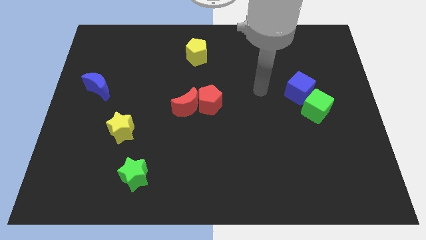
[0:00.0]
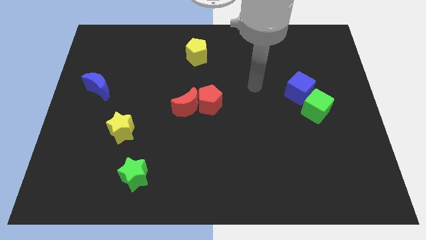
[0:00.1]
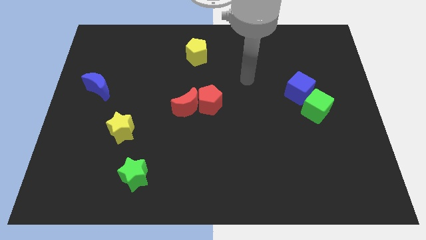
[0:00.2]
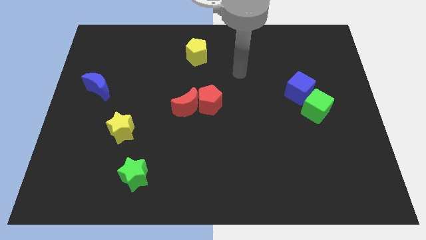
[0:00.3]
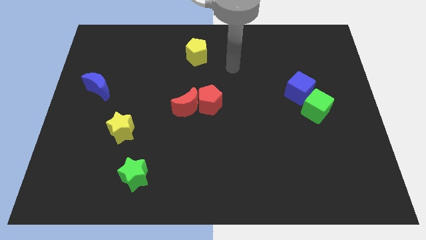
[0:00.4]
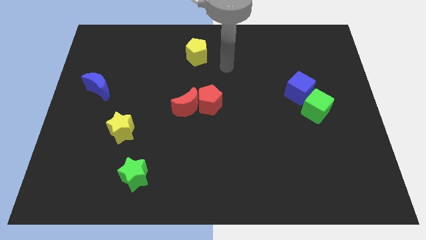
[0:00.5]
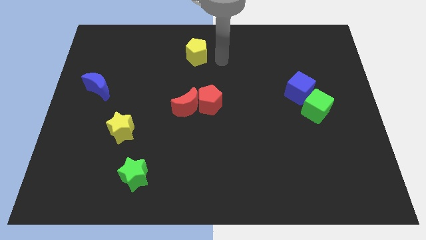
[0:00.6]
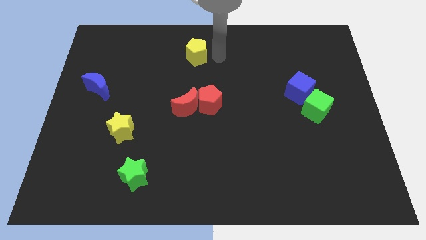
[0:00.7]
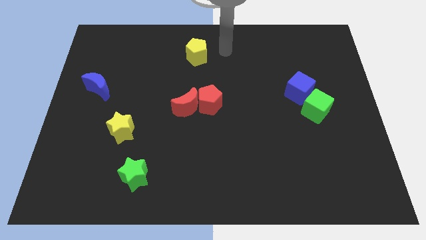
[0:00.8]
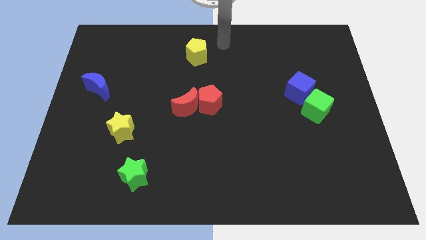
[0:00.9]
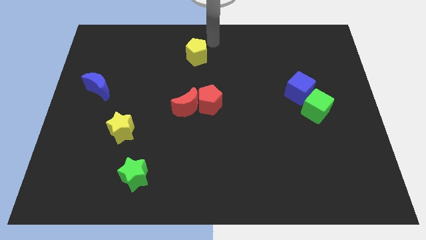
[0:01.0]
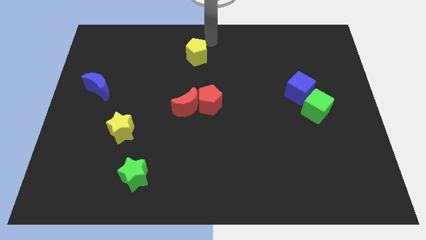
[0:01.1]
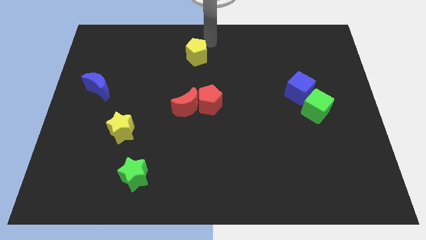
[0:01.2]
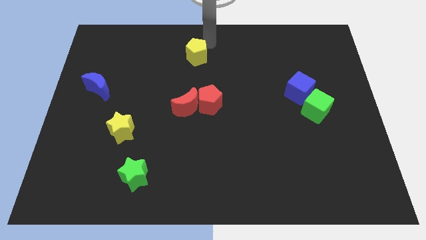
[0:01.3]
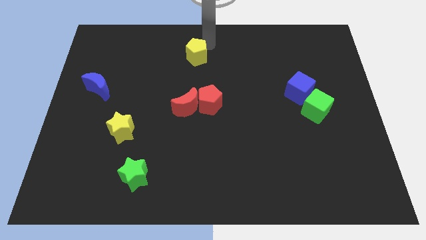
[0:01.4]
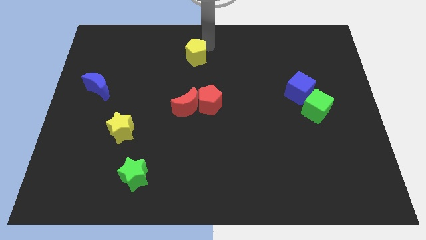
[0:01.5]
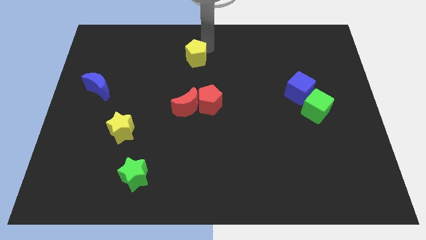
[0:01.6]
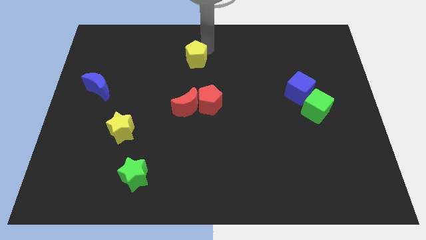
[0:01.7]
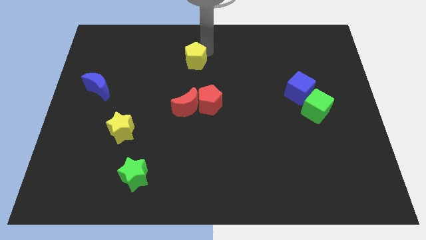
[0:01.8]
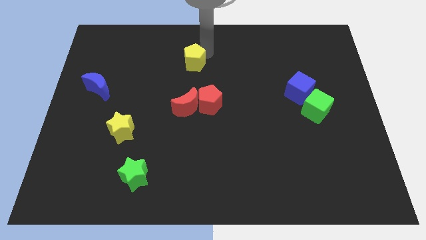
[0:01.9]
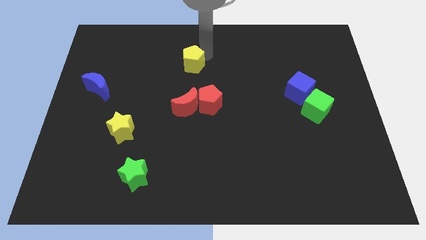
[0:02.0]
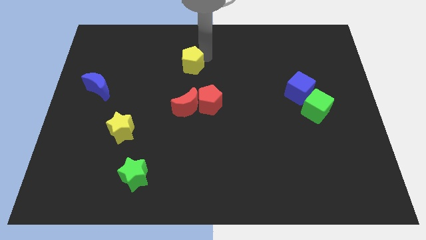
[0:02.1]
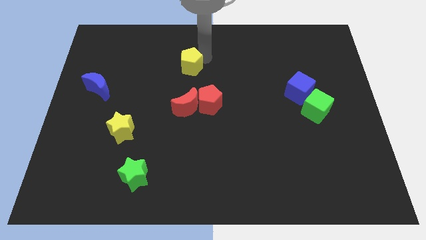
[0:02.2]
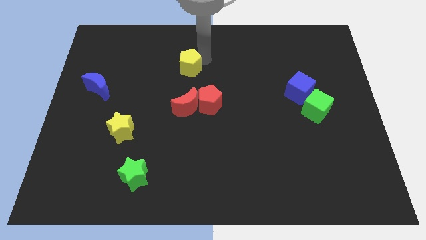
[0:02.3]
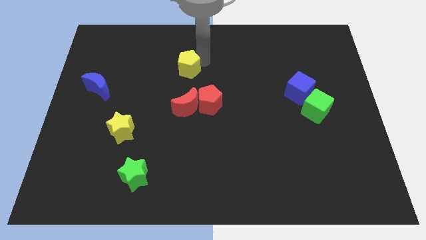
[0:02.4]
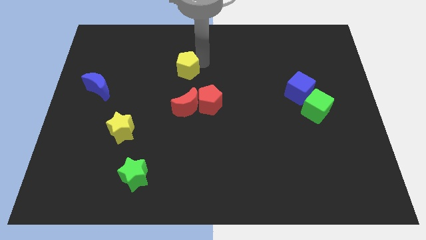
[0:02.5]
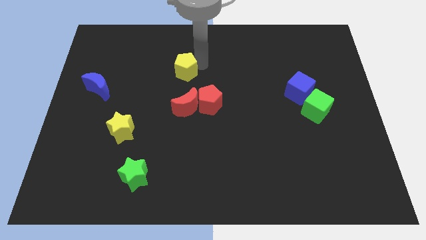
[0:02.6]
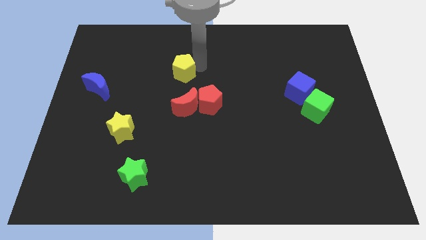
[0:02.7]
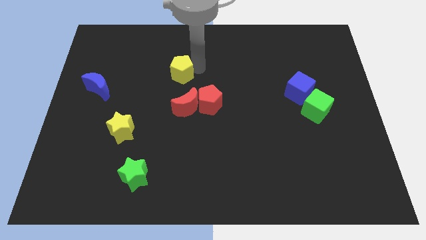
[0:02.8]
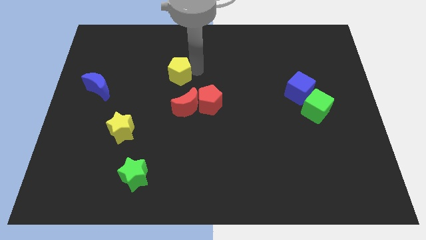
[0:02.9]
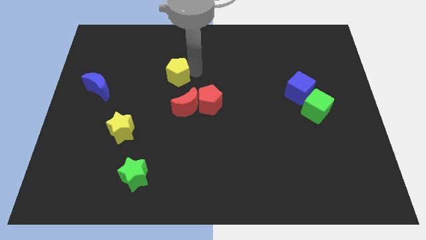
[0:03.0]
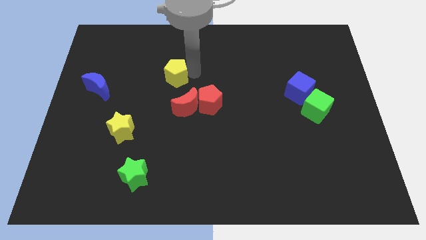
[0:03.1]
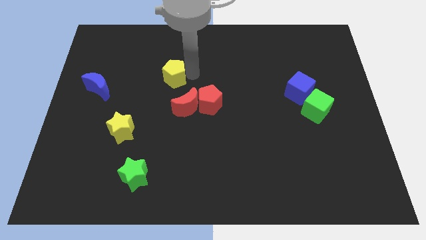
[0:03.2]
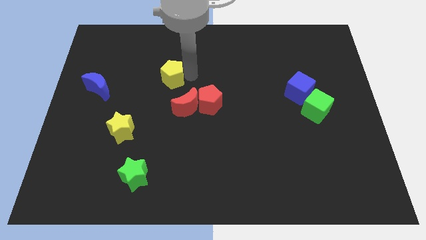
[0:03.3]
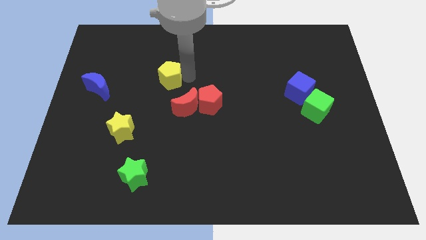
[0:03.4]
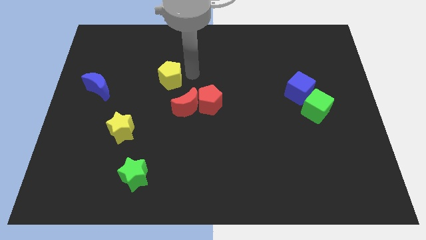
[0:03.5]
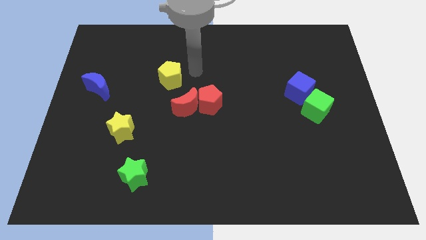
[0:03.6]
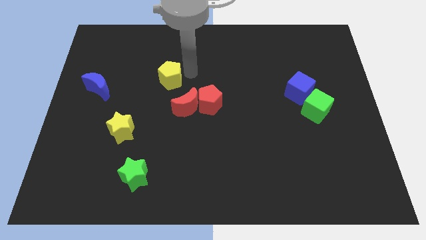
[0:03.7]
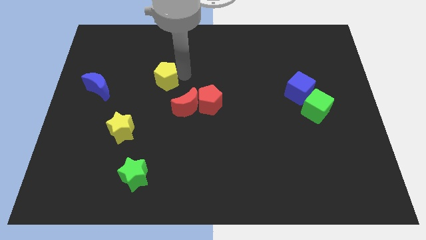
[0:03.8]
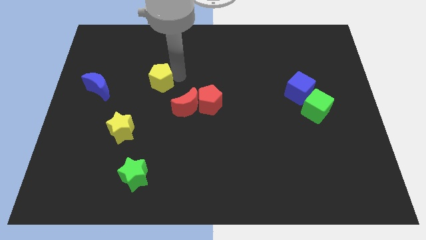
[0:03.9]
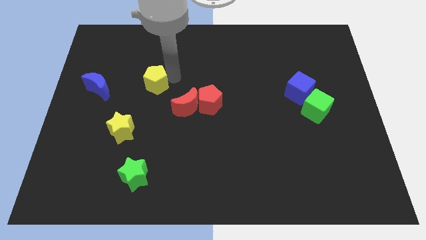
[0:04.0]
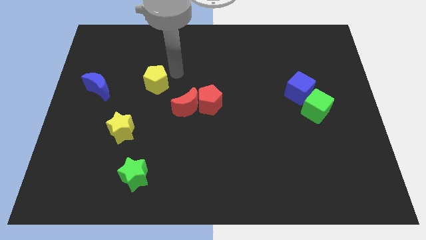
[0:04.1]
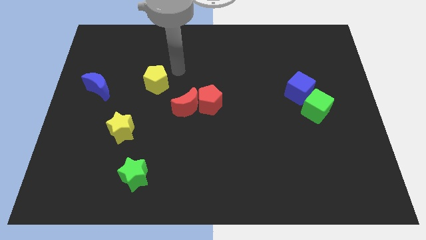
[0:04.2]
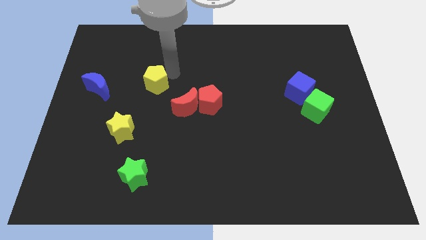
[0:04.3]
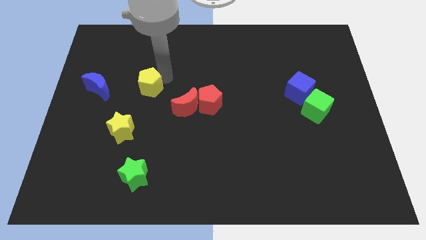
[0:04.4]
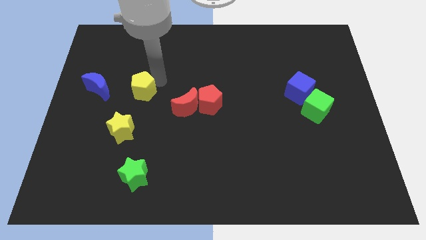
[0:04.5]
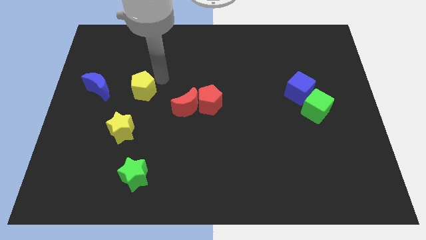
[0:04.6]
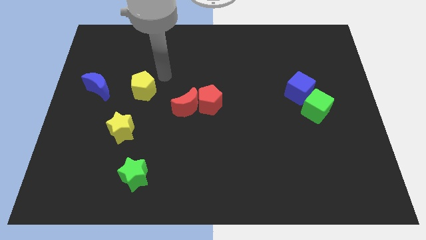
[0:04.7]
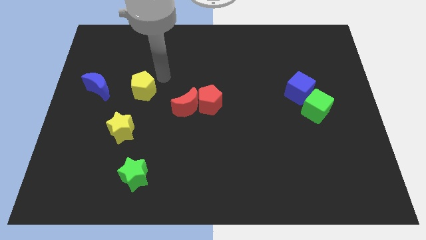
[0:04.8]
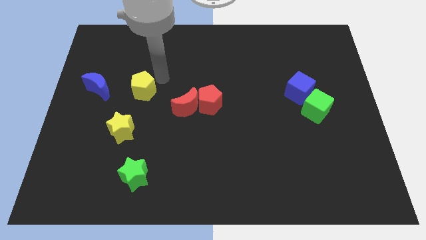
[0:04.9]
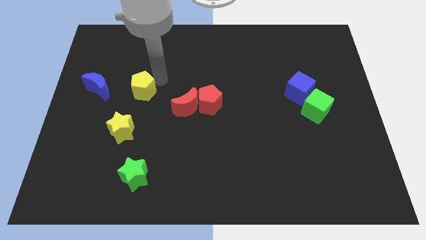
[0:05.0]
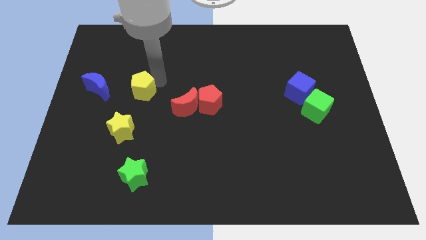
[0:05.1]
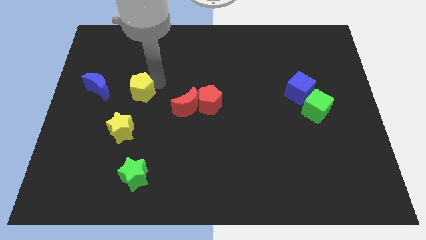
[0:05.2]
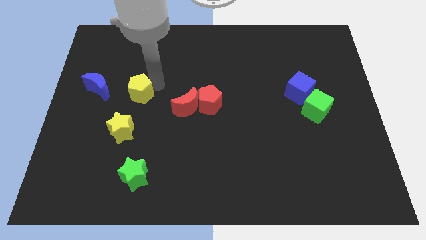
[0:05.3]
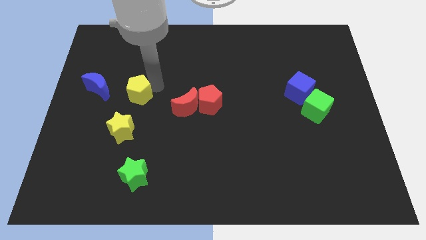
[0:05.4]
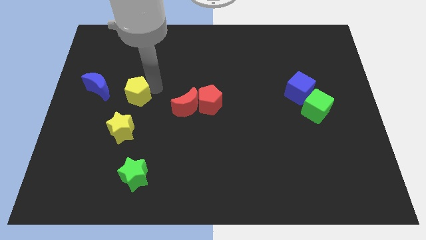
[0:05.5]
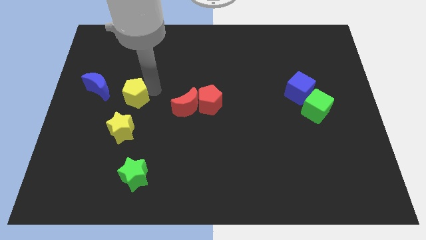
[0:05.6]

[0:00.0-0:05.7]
slide the yellow pentagon downwards and then left

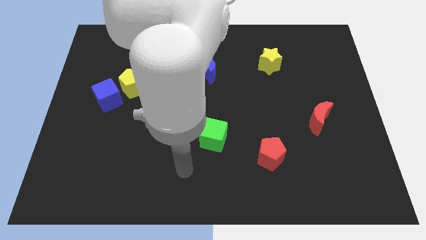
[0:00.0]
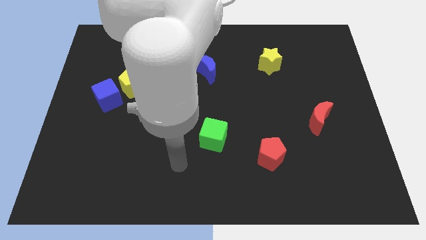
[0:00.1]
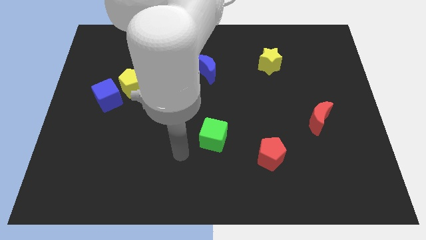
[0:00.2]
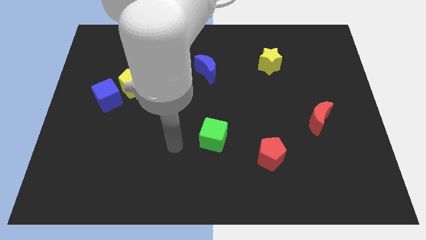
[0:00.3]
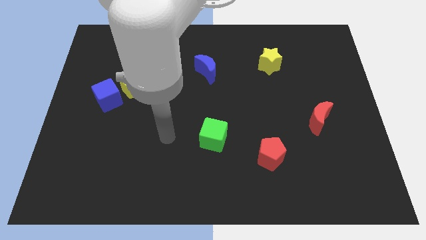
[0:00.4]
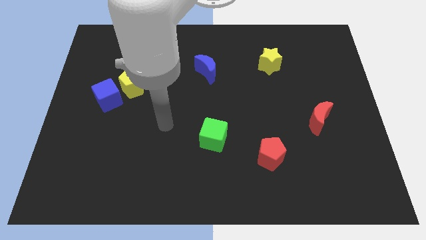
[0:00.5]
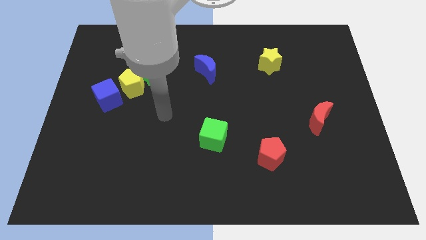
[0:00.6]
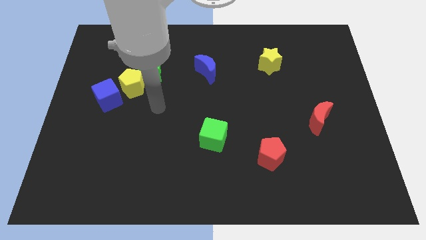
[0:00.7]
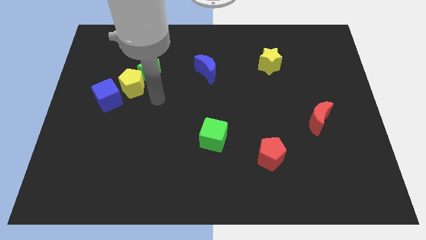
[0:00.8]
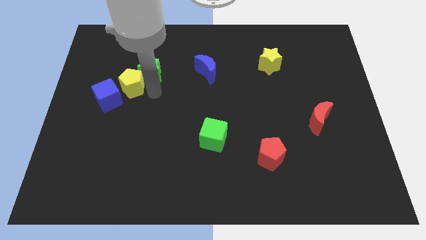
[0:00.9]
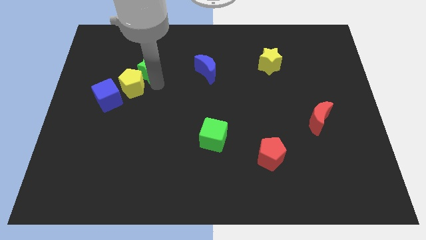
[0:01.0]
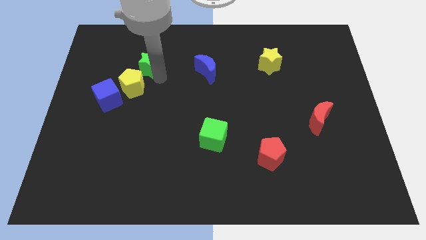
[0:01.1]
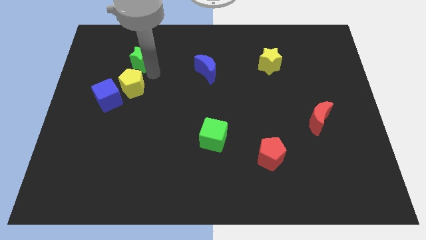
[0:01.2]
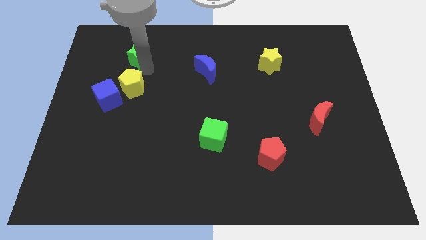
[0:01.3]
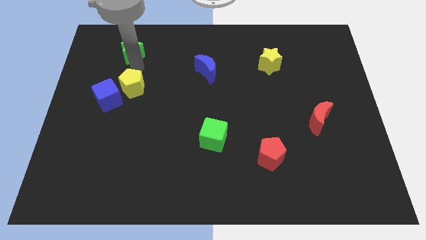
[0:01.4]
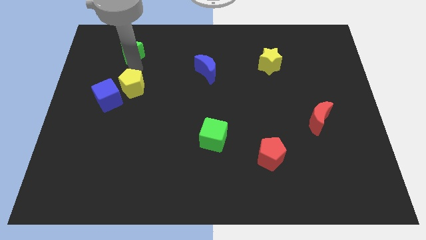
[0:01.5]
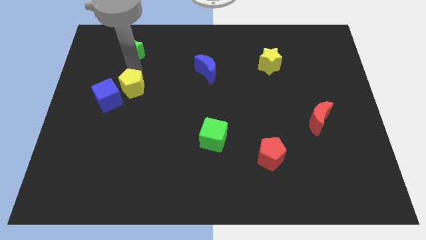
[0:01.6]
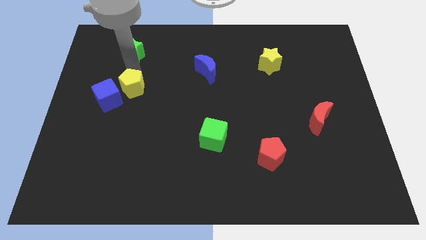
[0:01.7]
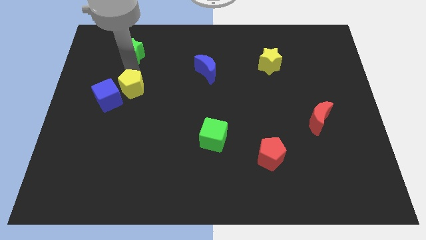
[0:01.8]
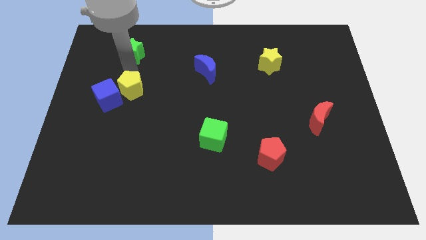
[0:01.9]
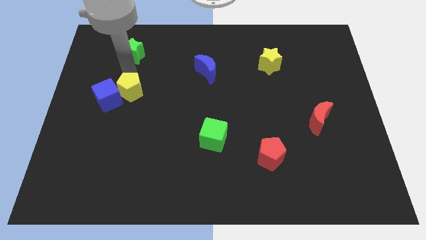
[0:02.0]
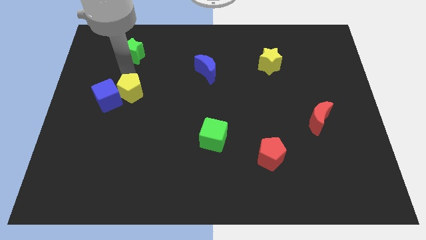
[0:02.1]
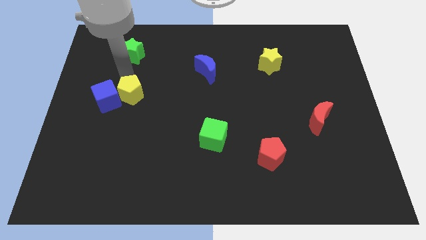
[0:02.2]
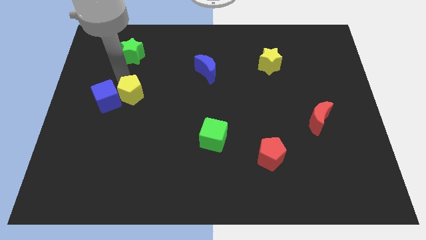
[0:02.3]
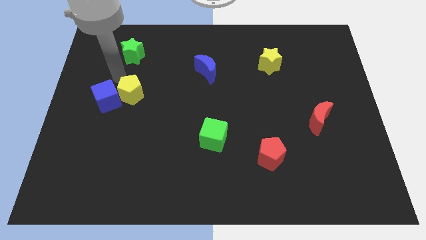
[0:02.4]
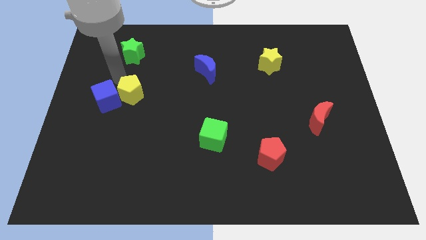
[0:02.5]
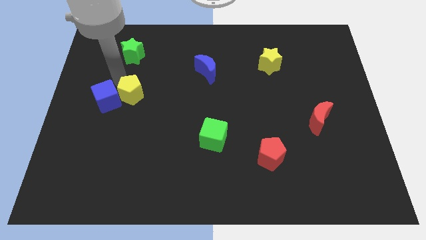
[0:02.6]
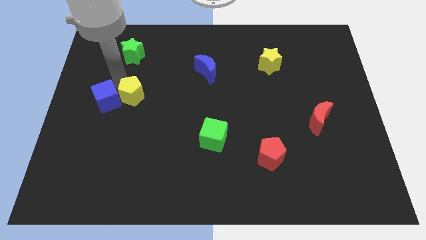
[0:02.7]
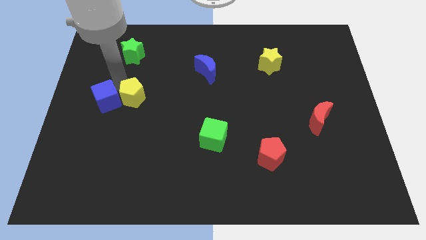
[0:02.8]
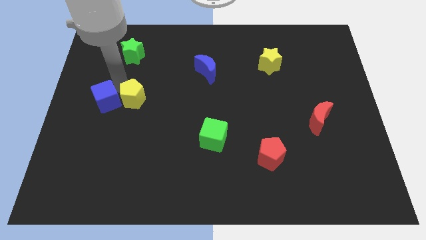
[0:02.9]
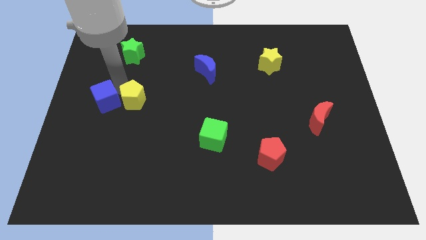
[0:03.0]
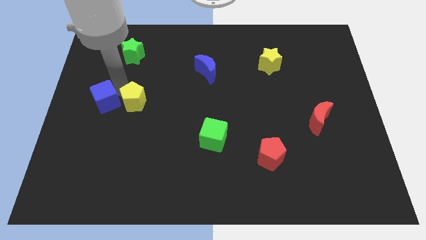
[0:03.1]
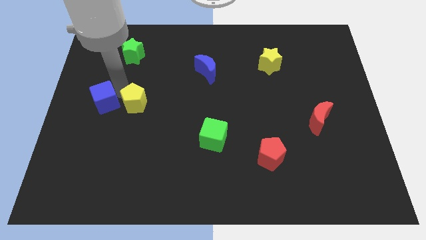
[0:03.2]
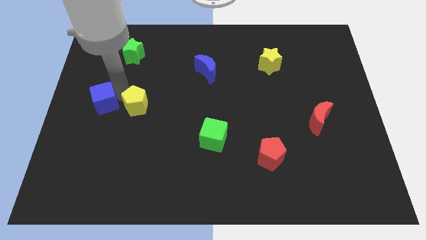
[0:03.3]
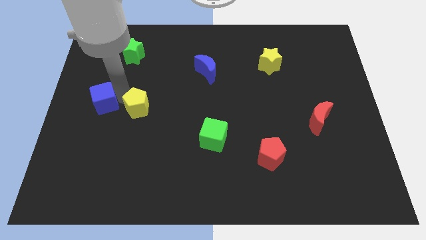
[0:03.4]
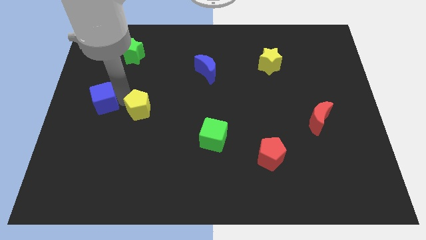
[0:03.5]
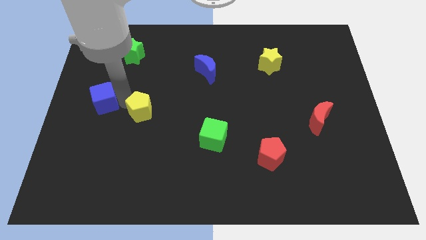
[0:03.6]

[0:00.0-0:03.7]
slightly slide the yellow pentagon downwards and then to the right
